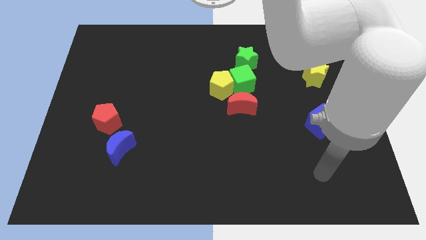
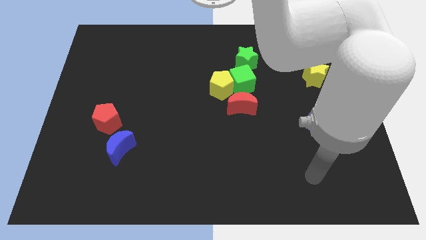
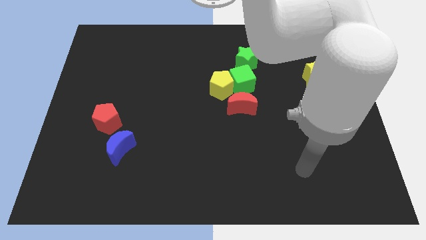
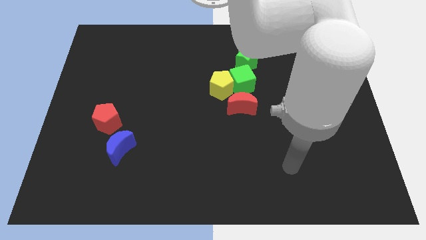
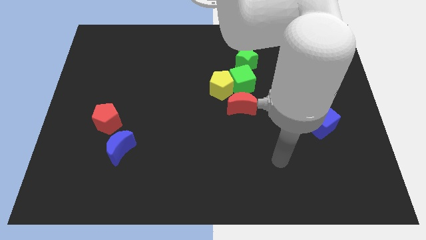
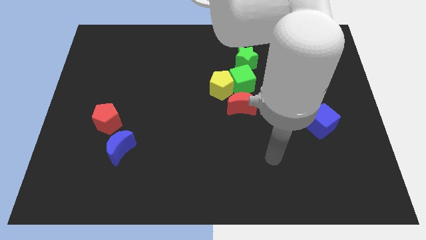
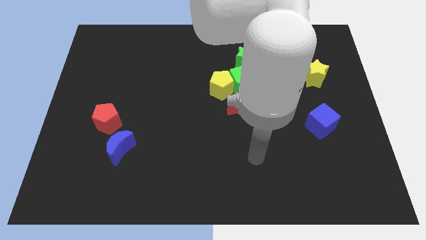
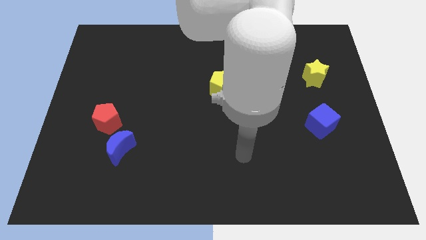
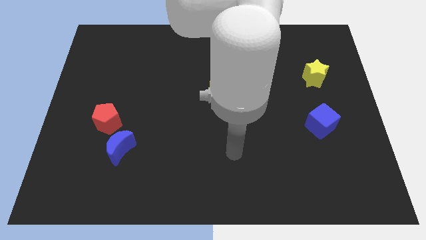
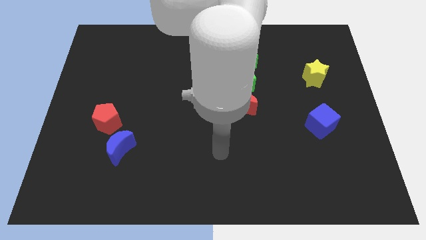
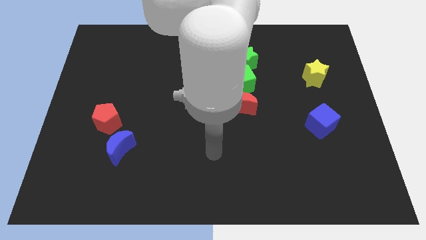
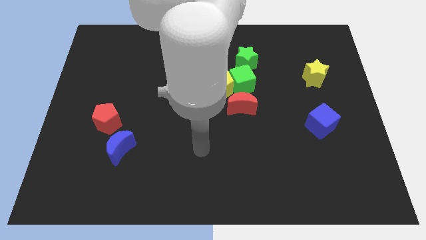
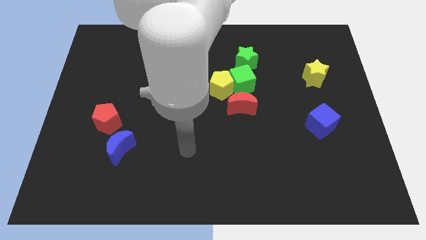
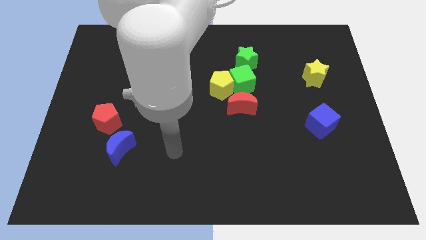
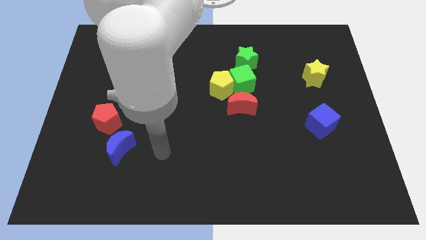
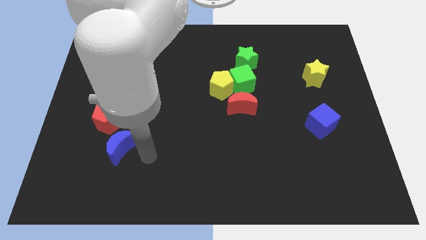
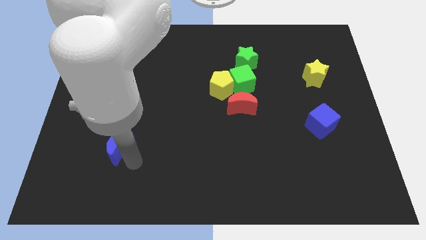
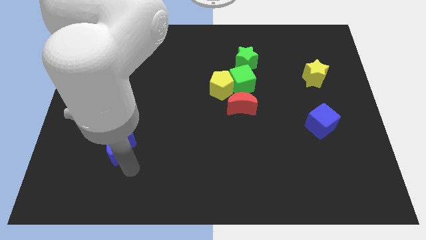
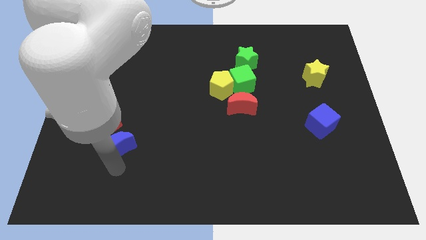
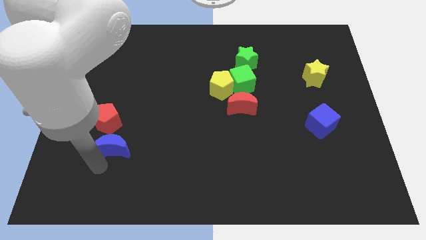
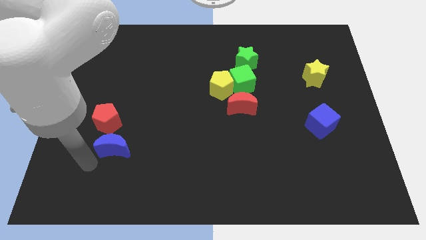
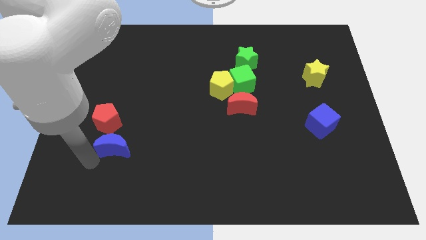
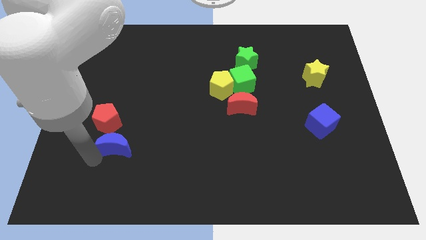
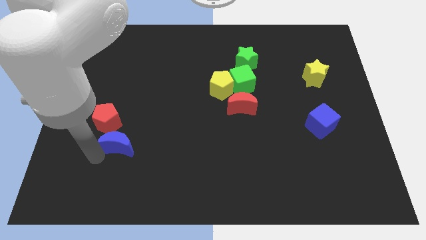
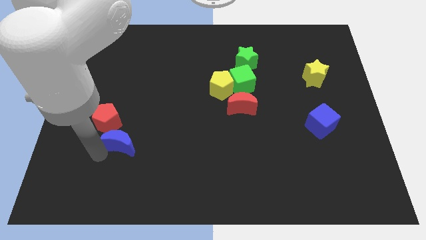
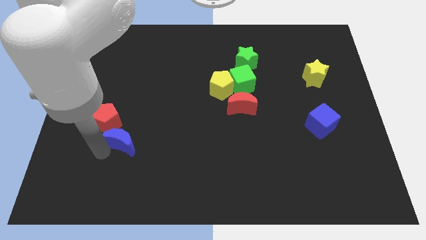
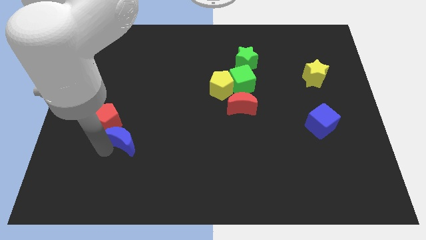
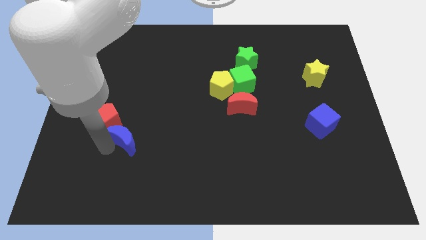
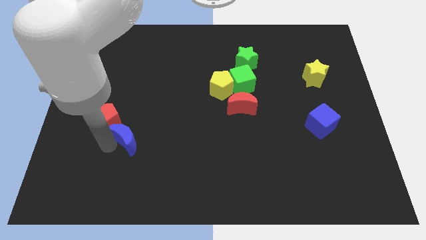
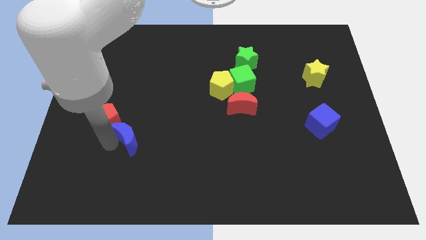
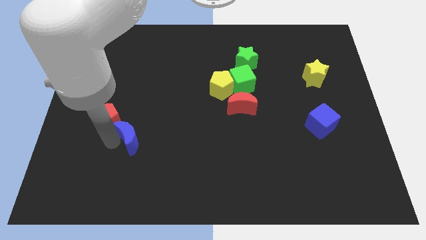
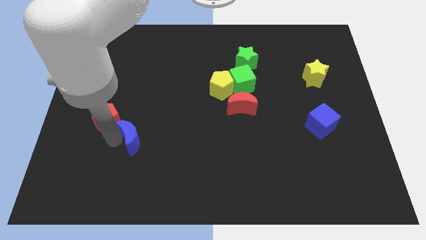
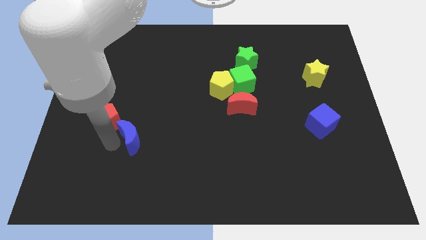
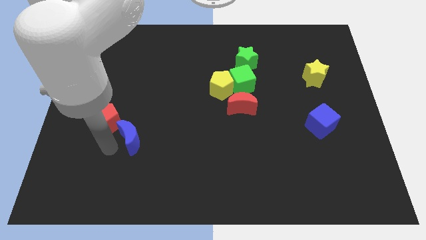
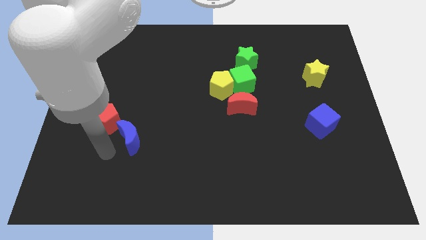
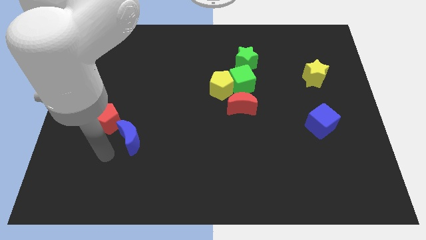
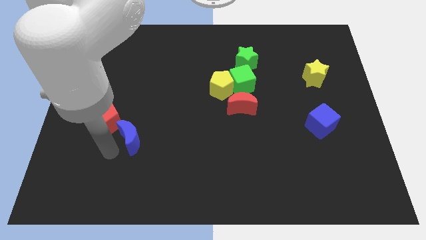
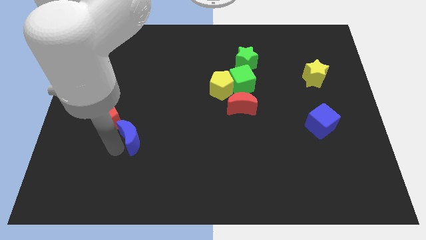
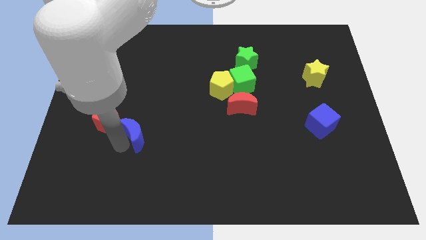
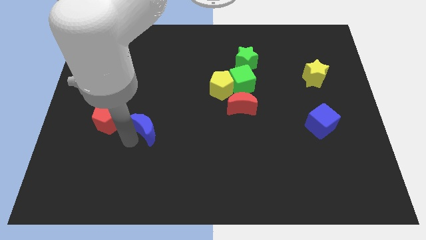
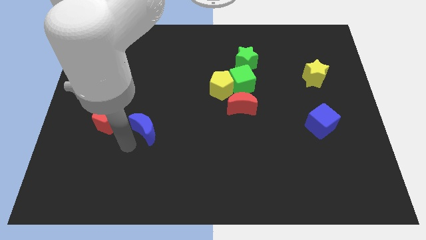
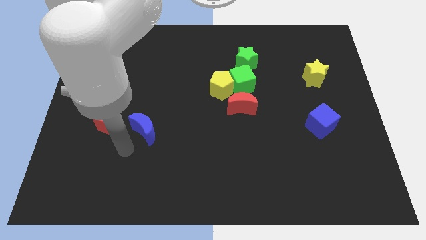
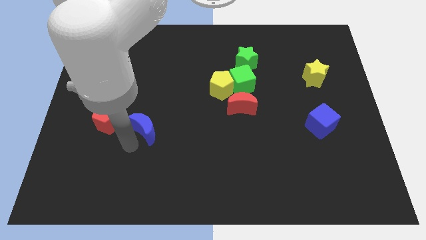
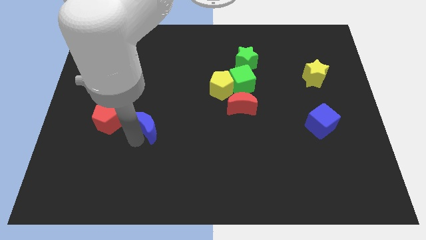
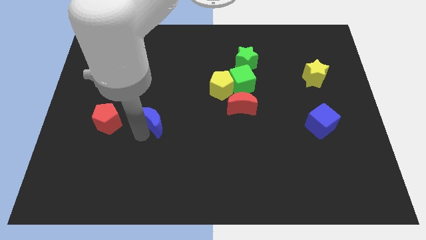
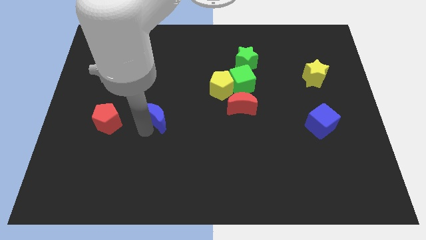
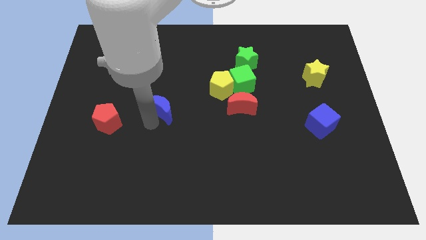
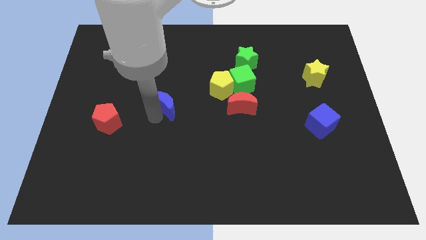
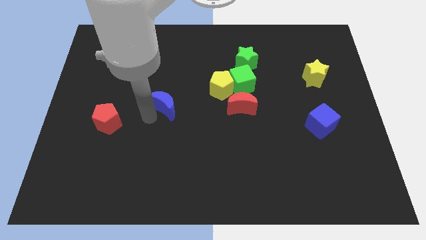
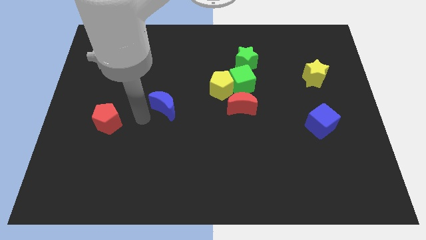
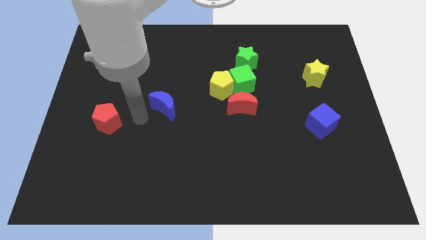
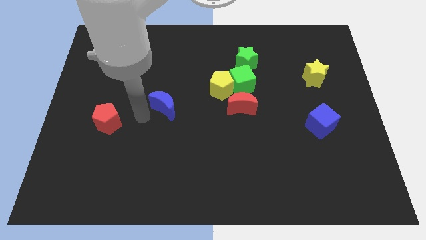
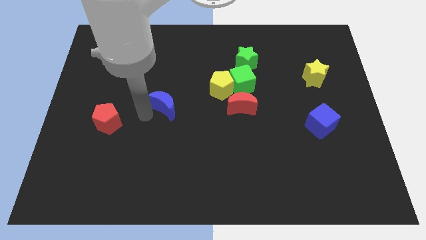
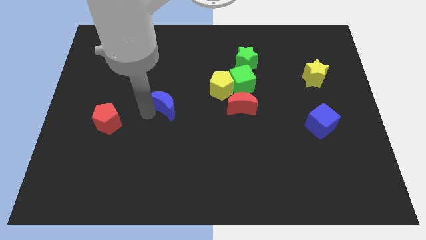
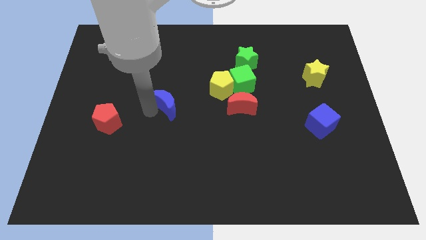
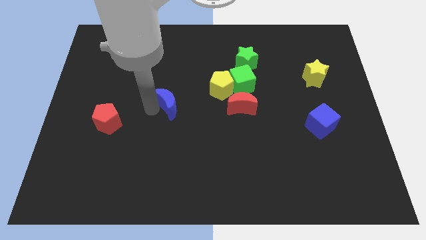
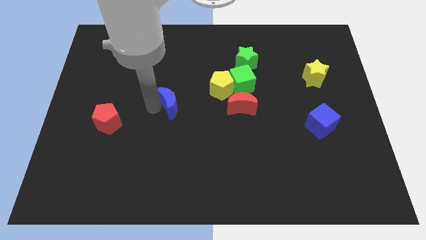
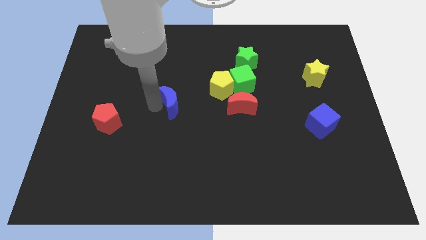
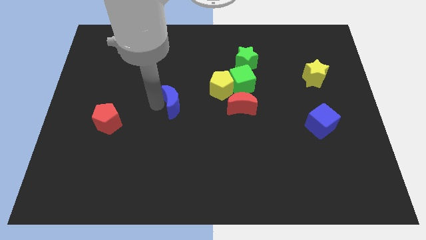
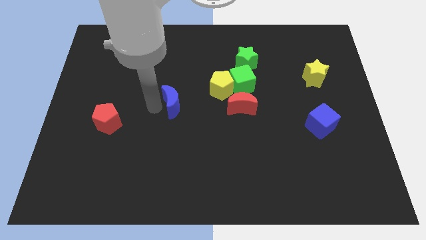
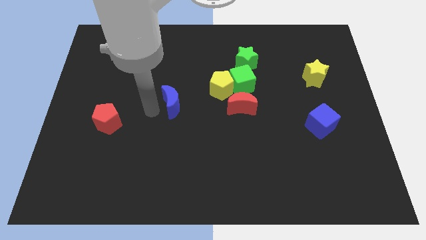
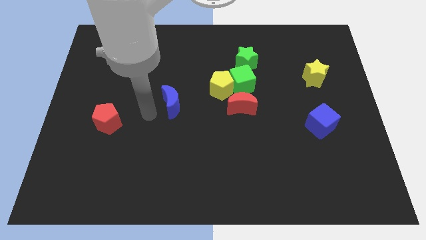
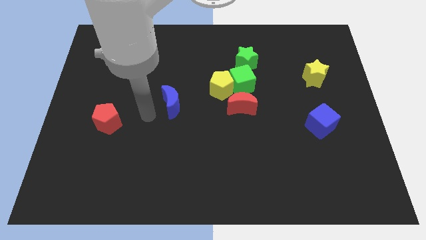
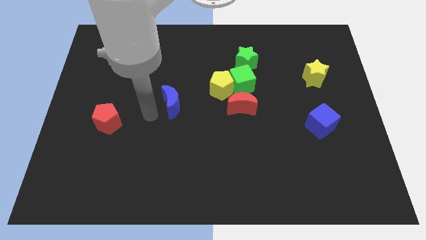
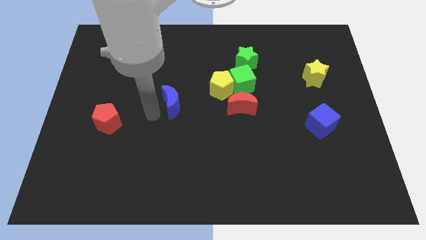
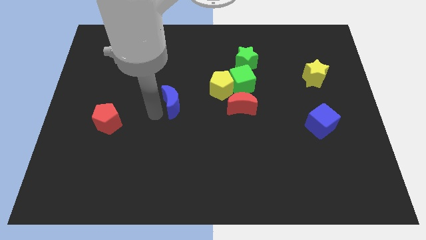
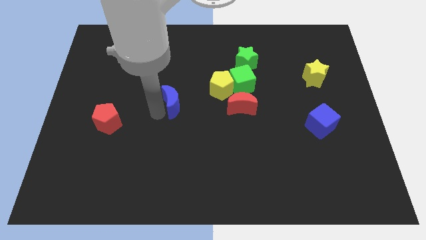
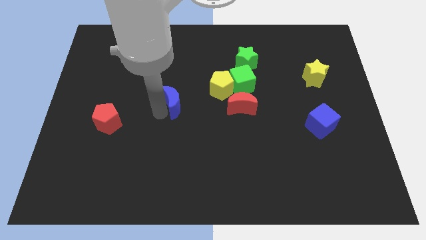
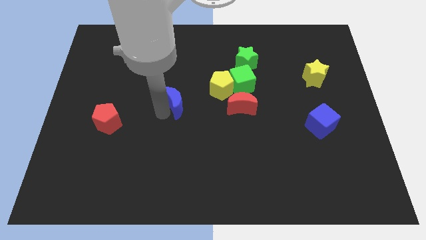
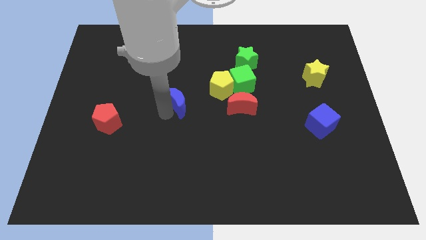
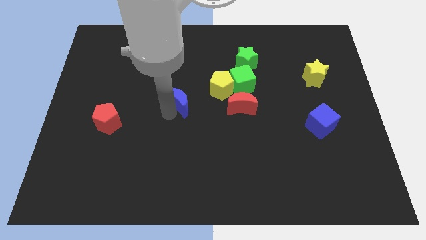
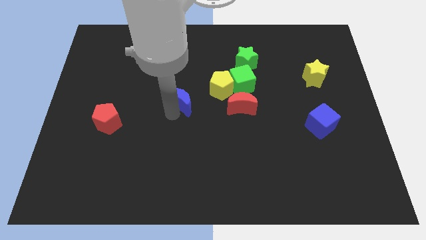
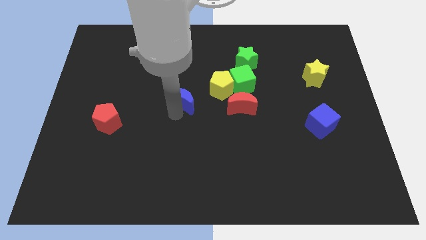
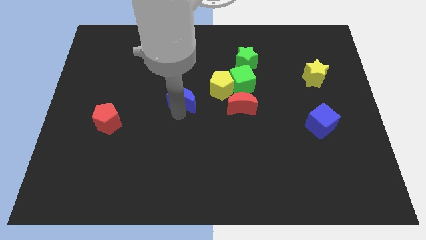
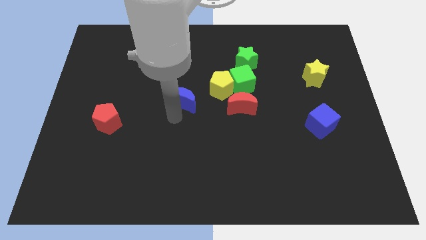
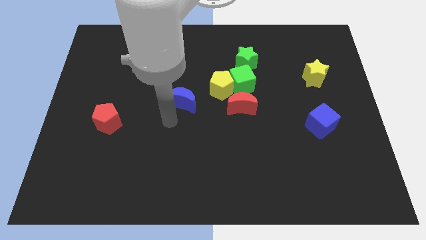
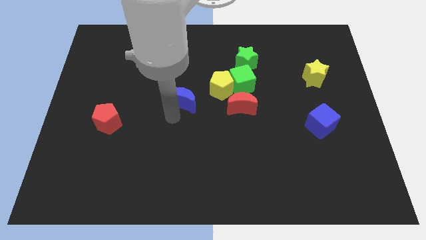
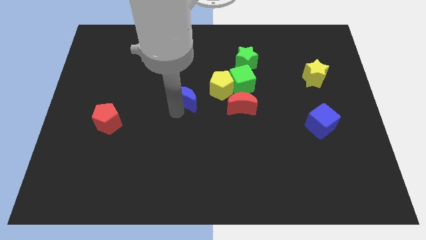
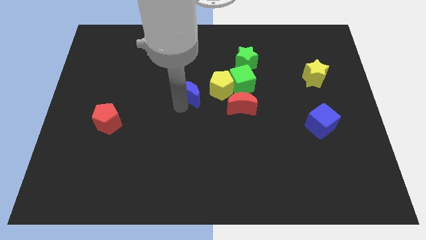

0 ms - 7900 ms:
slide the blue moon up and right diagonally
